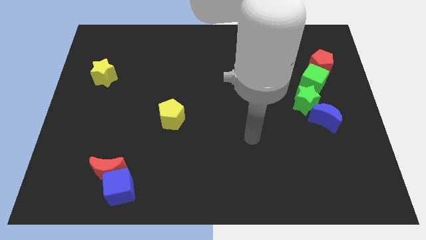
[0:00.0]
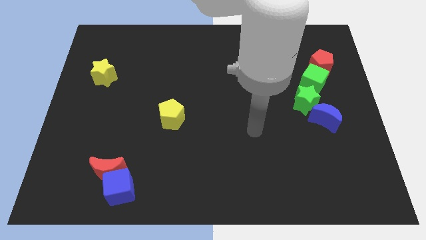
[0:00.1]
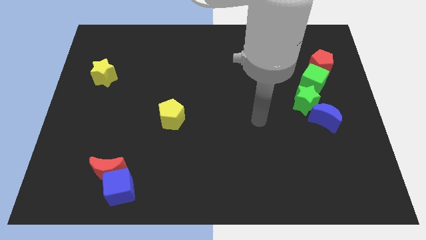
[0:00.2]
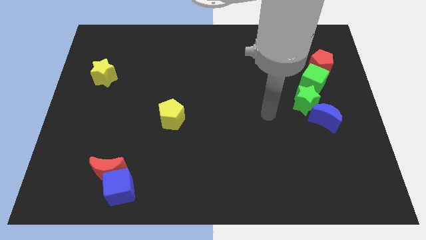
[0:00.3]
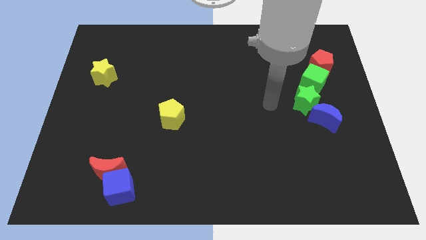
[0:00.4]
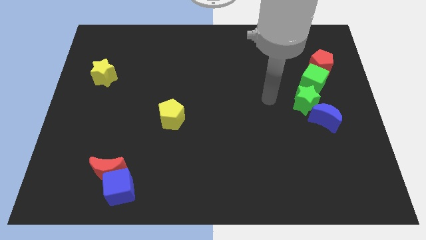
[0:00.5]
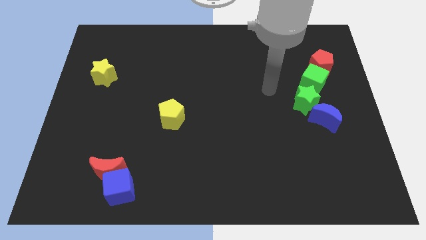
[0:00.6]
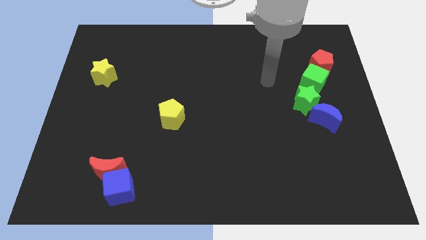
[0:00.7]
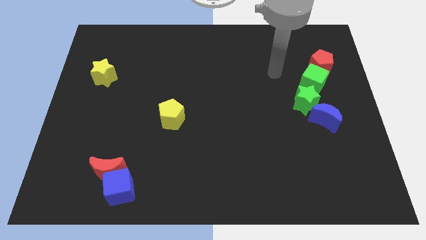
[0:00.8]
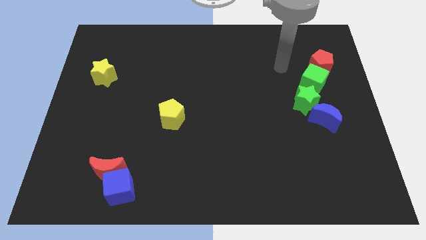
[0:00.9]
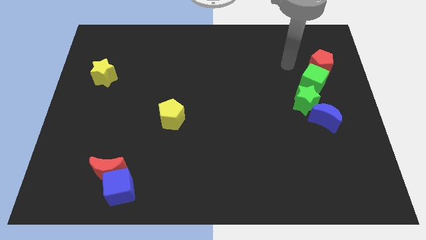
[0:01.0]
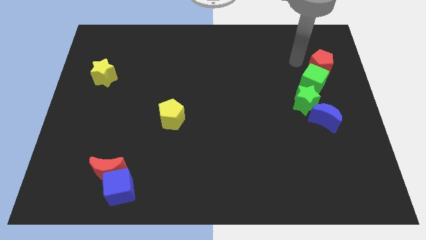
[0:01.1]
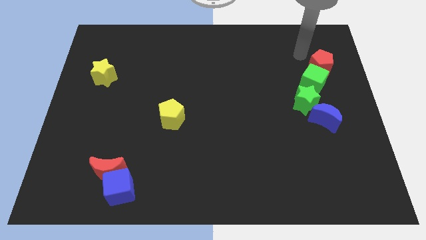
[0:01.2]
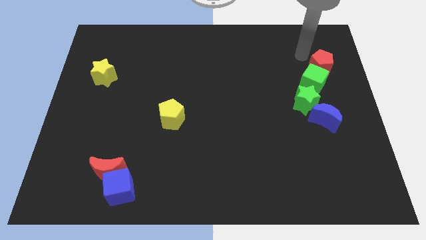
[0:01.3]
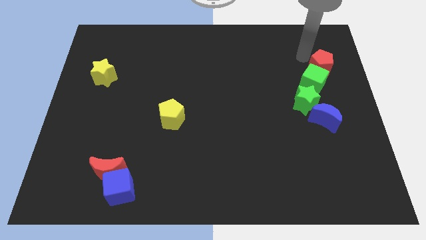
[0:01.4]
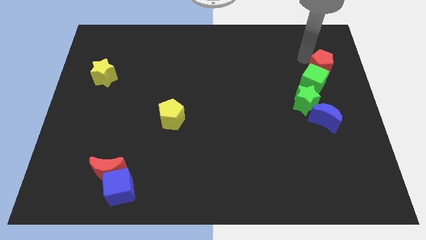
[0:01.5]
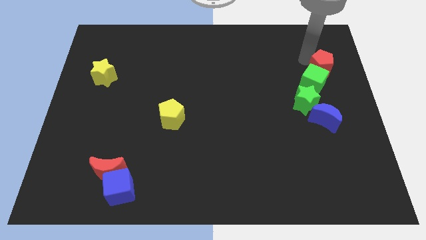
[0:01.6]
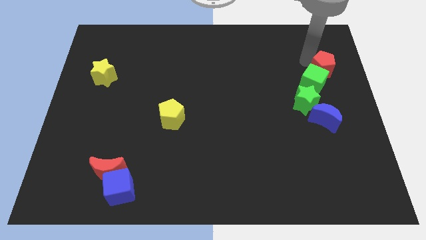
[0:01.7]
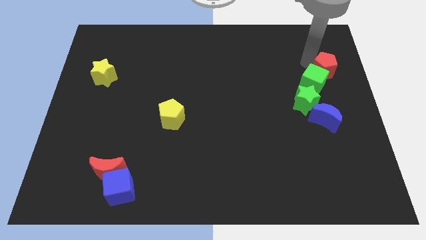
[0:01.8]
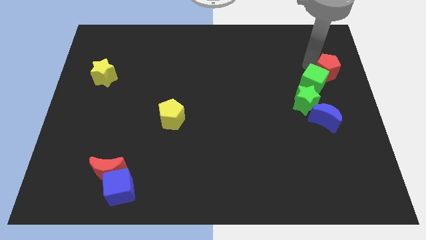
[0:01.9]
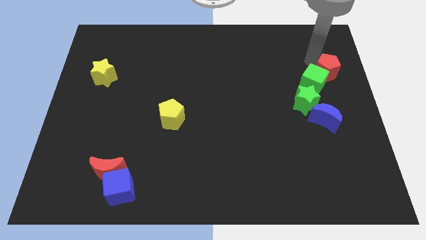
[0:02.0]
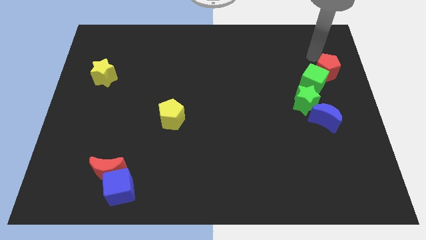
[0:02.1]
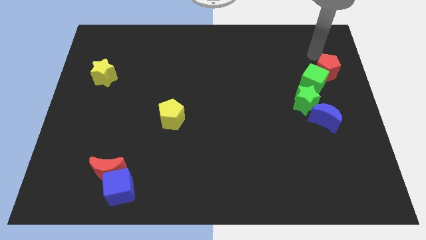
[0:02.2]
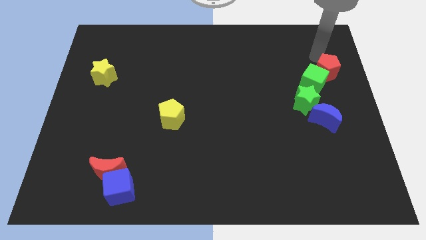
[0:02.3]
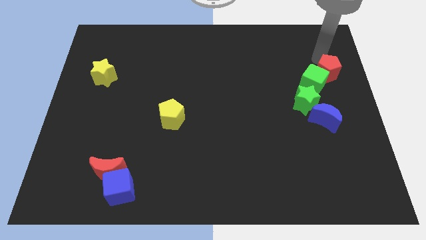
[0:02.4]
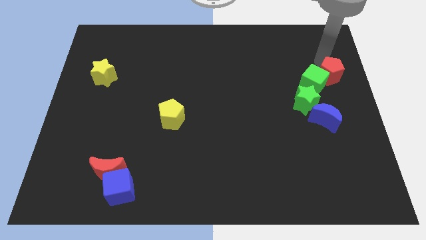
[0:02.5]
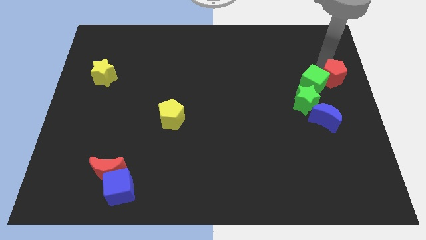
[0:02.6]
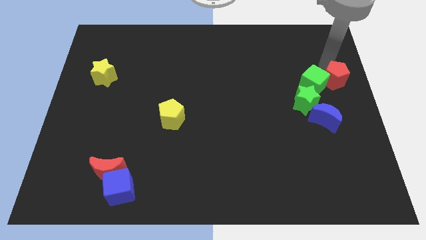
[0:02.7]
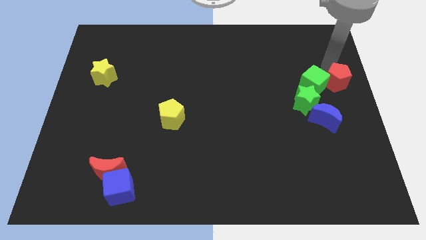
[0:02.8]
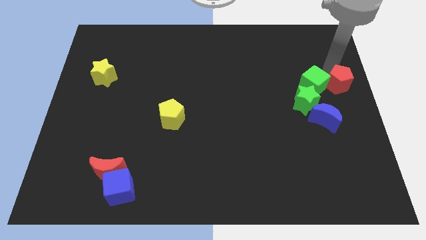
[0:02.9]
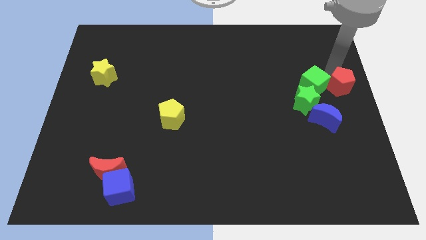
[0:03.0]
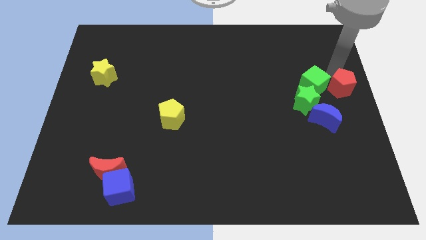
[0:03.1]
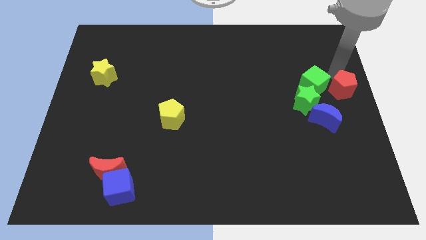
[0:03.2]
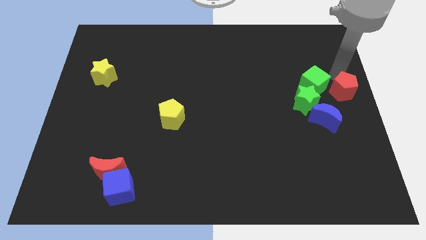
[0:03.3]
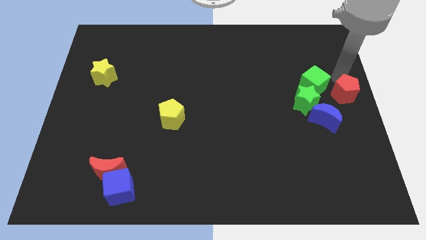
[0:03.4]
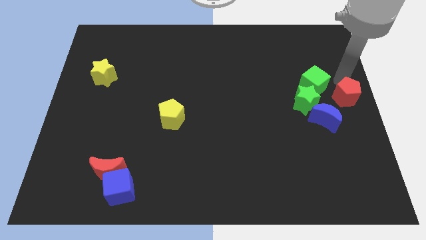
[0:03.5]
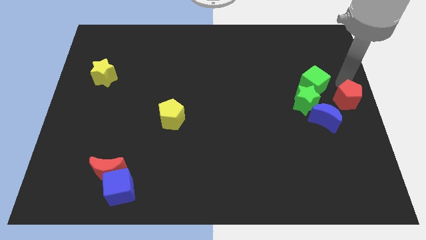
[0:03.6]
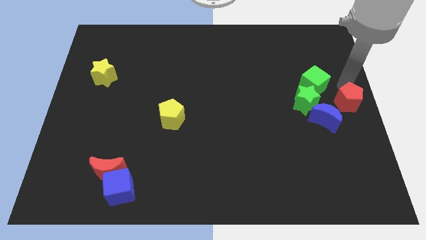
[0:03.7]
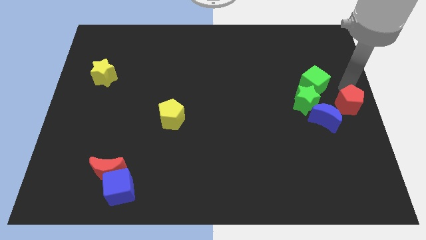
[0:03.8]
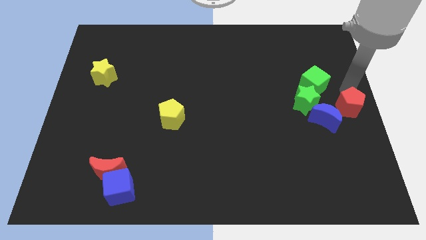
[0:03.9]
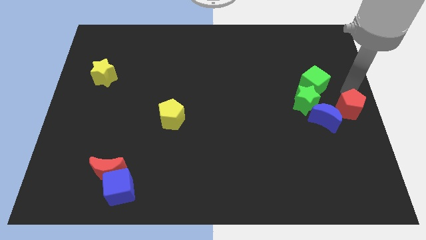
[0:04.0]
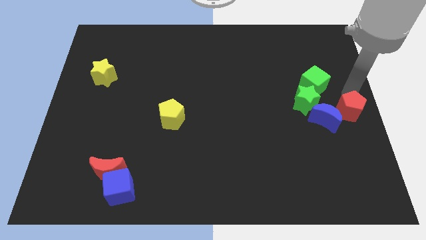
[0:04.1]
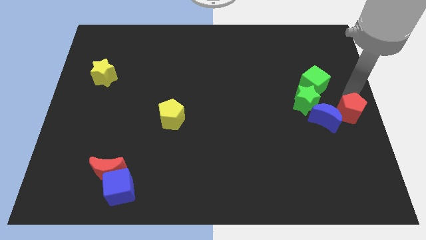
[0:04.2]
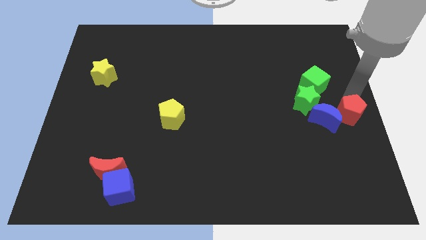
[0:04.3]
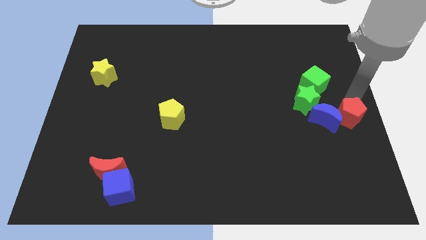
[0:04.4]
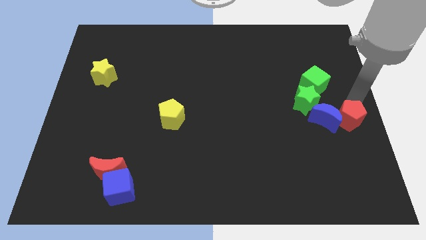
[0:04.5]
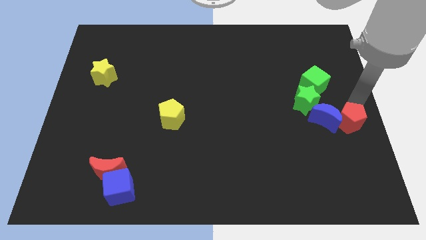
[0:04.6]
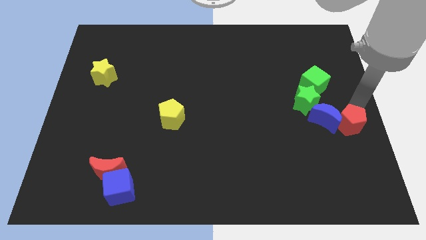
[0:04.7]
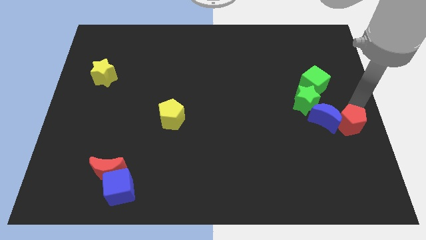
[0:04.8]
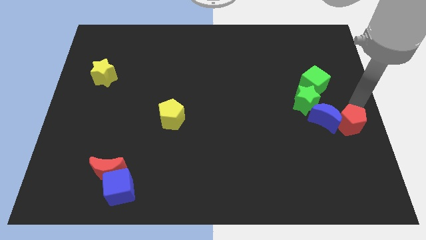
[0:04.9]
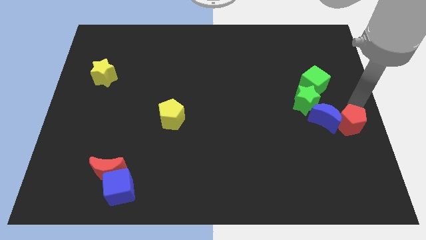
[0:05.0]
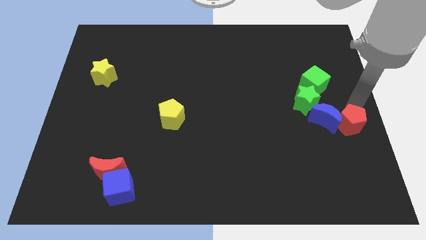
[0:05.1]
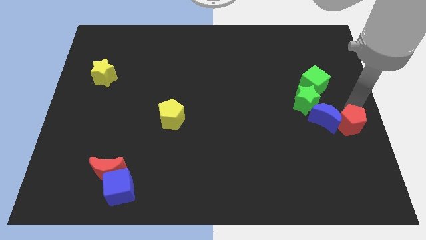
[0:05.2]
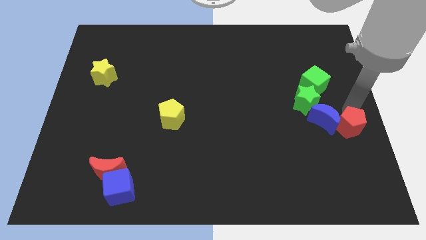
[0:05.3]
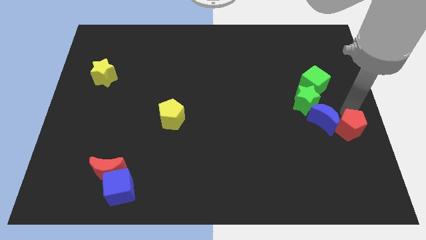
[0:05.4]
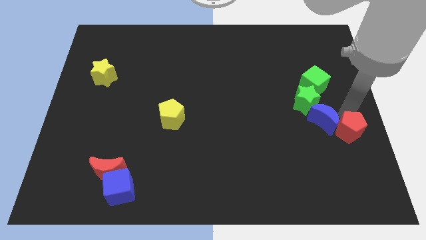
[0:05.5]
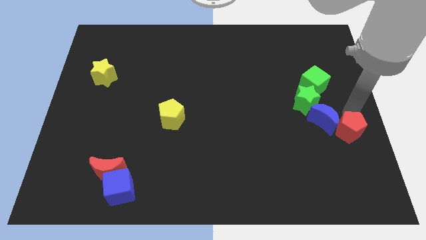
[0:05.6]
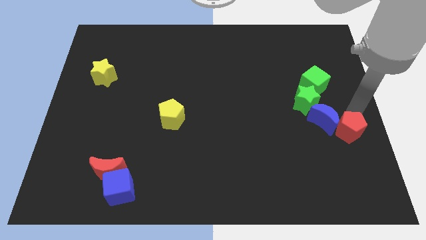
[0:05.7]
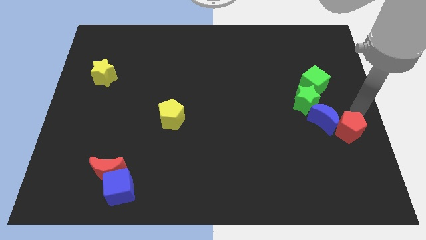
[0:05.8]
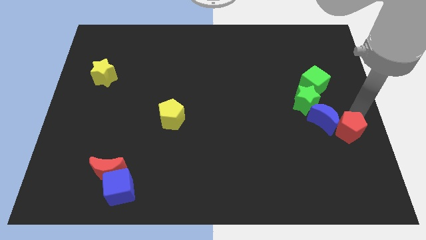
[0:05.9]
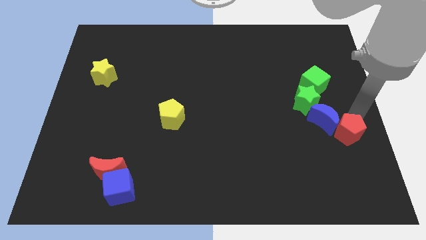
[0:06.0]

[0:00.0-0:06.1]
push the red pentagon downwards

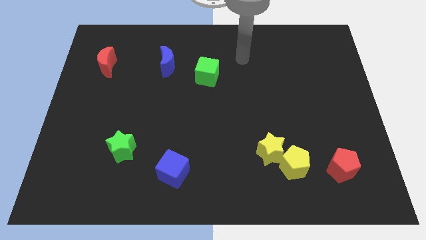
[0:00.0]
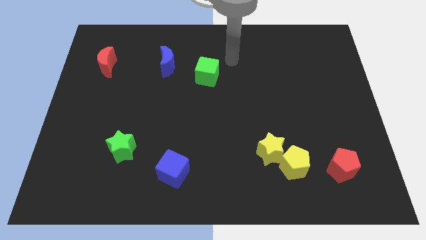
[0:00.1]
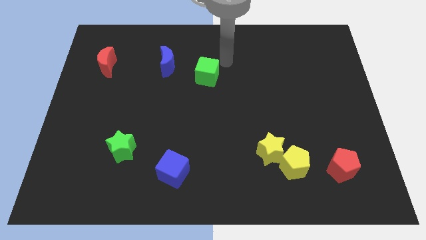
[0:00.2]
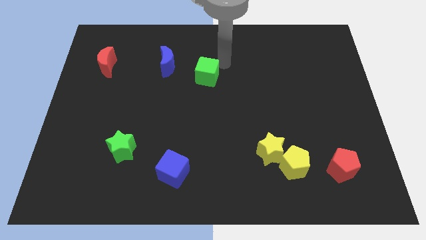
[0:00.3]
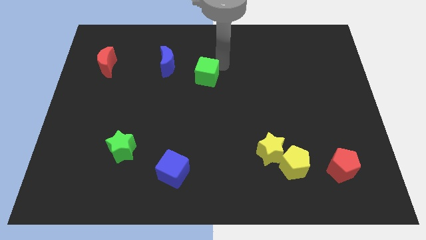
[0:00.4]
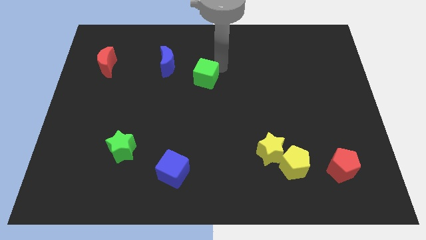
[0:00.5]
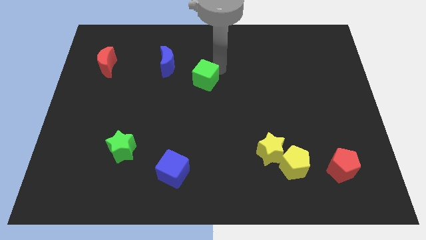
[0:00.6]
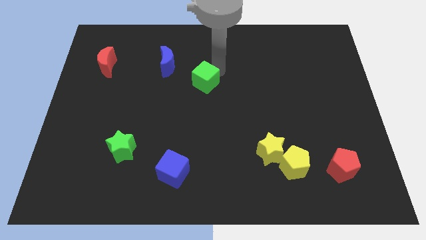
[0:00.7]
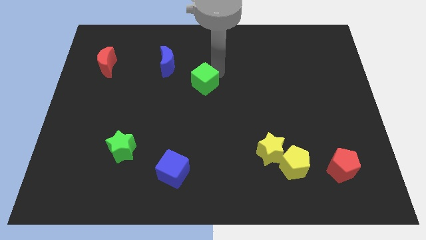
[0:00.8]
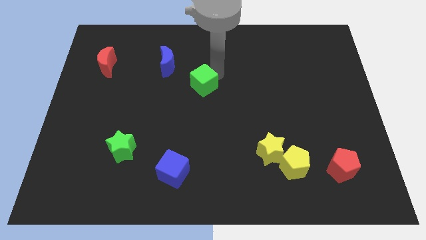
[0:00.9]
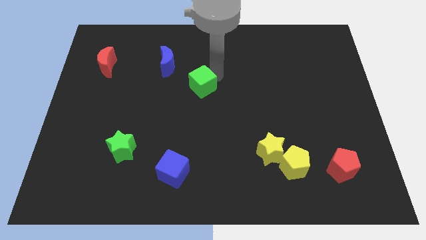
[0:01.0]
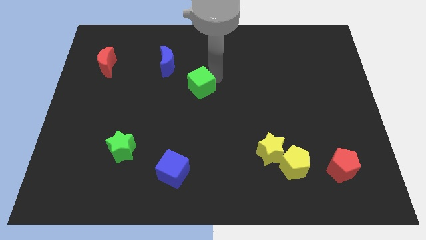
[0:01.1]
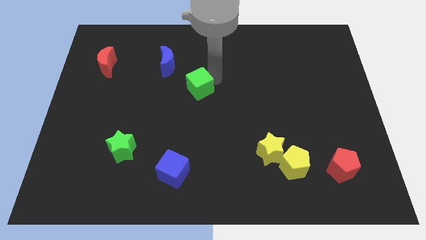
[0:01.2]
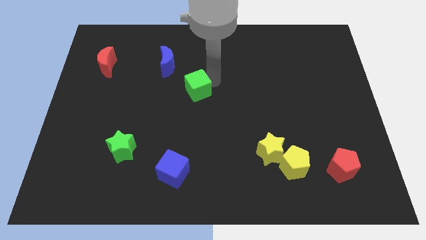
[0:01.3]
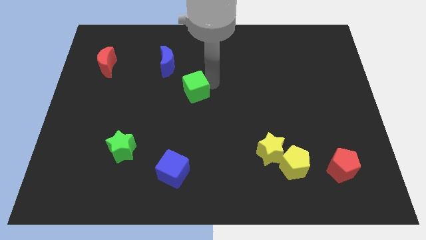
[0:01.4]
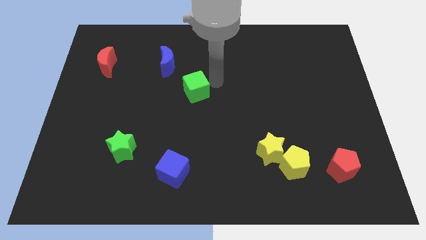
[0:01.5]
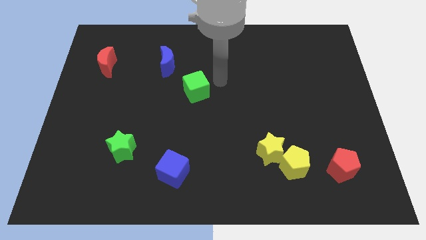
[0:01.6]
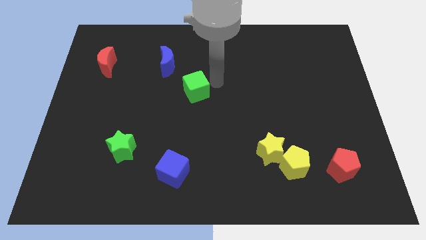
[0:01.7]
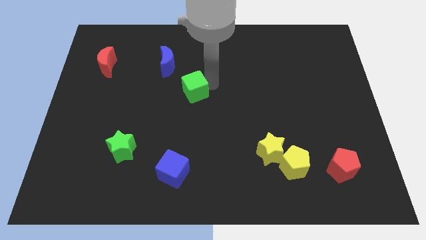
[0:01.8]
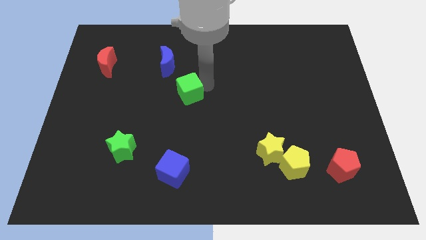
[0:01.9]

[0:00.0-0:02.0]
slightly slide the green cube down and then to the left
